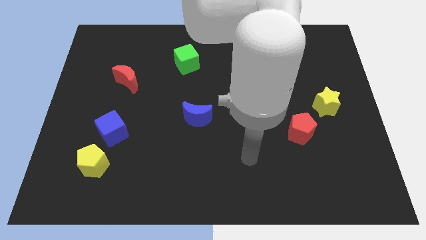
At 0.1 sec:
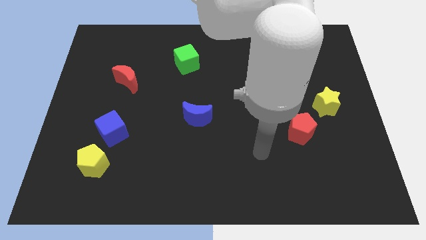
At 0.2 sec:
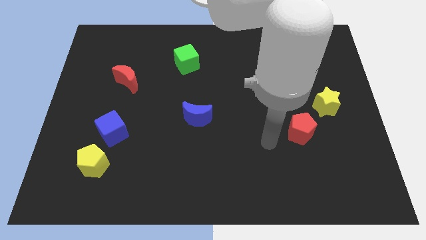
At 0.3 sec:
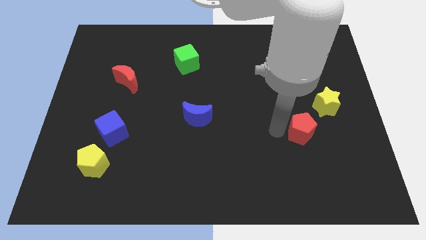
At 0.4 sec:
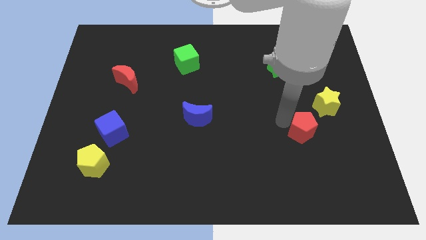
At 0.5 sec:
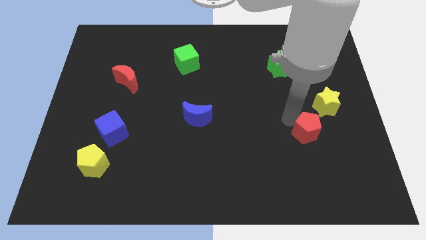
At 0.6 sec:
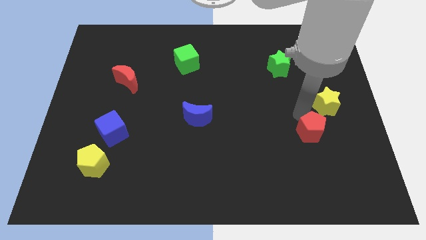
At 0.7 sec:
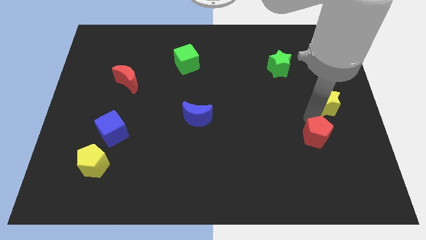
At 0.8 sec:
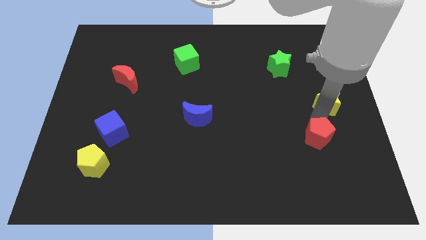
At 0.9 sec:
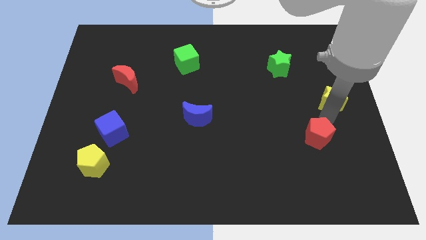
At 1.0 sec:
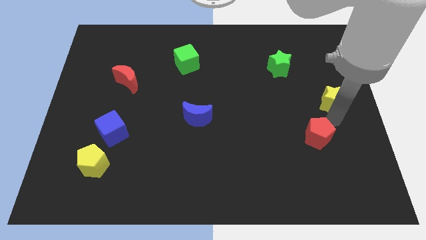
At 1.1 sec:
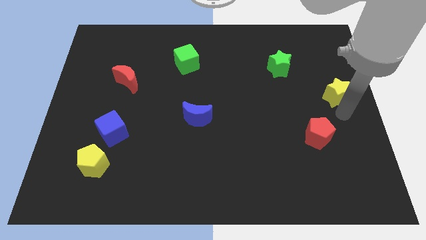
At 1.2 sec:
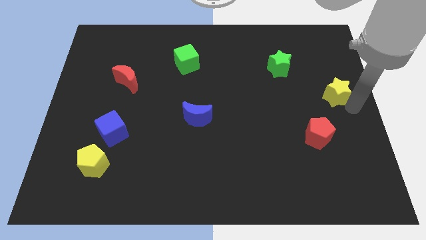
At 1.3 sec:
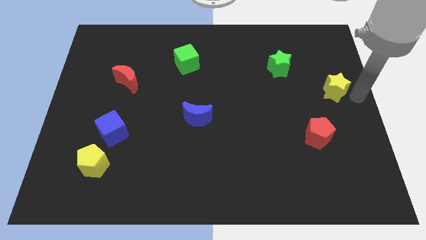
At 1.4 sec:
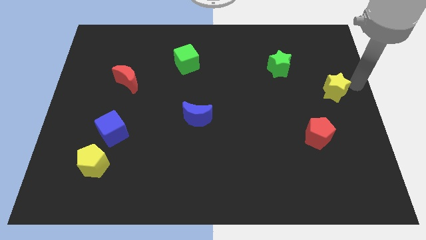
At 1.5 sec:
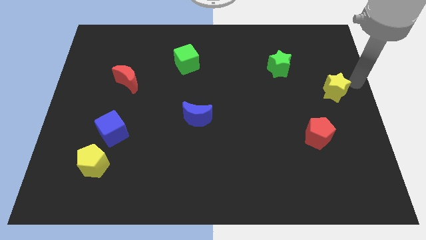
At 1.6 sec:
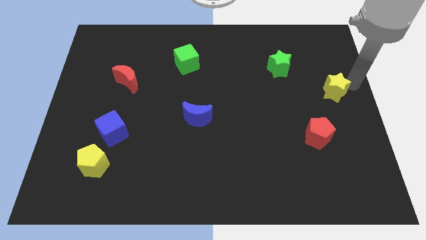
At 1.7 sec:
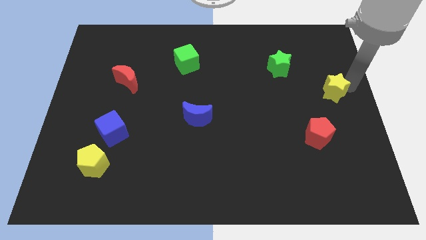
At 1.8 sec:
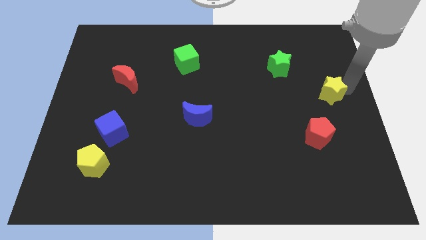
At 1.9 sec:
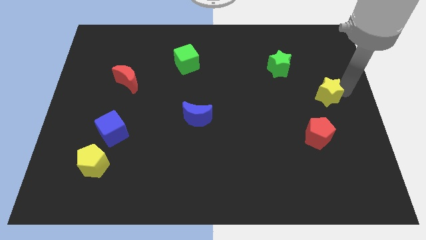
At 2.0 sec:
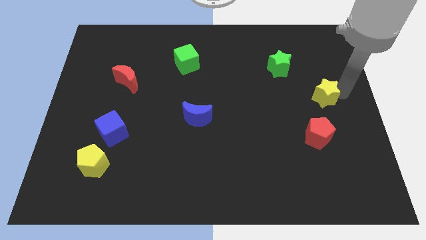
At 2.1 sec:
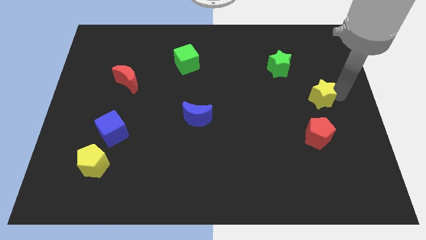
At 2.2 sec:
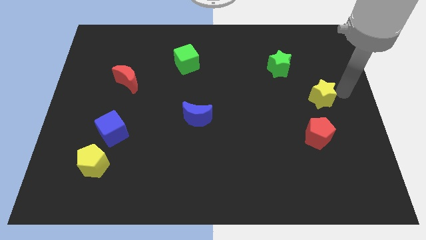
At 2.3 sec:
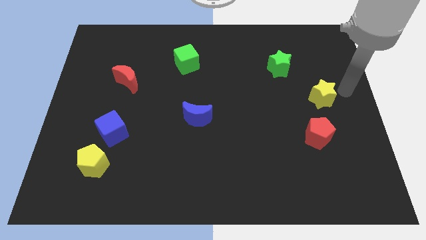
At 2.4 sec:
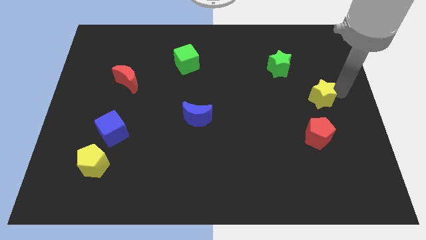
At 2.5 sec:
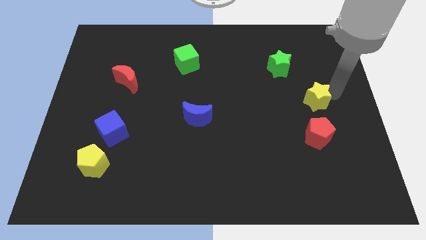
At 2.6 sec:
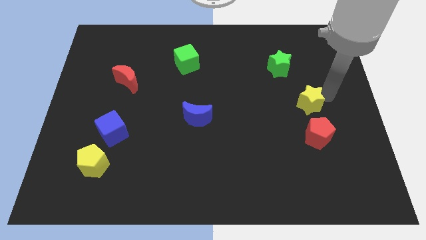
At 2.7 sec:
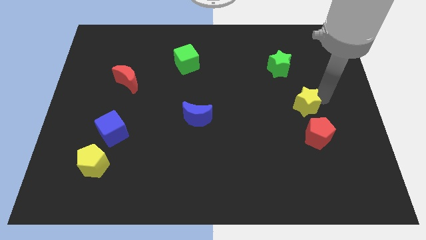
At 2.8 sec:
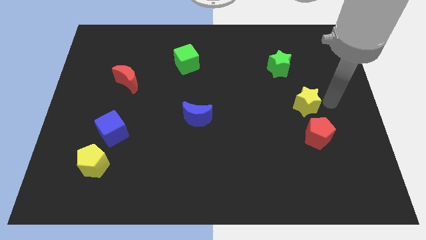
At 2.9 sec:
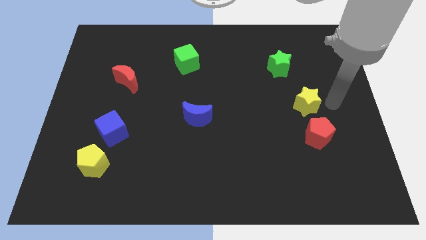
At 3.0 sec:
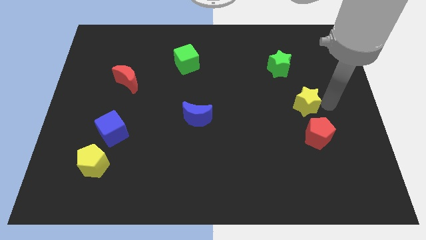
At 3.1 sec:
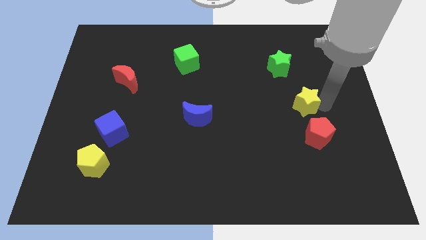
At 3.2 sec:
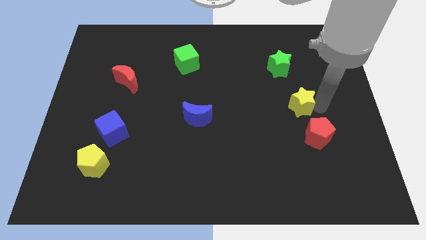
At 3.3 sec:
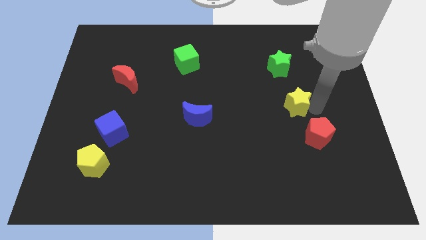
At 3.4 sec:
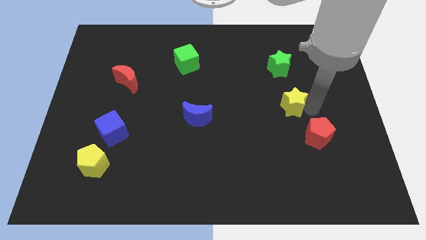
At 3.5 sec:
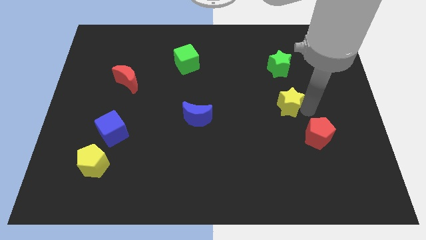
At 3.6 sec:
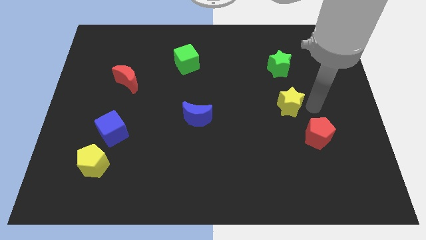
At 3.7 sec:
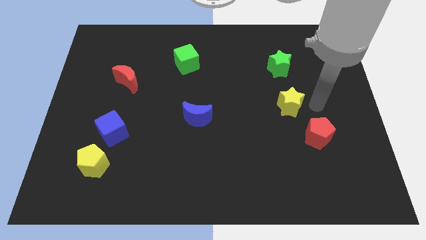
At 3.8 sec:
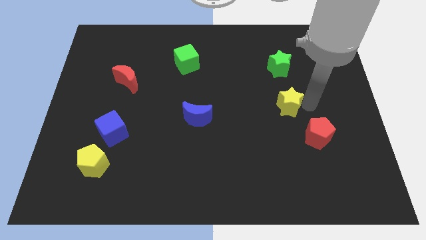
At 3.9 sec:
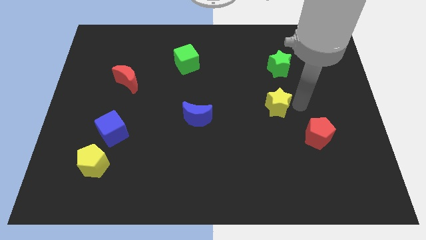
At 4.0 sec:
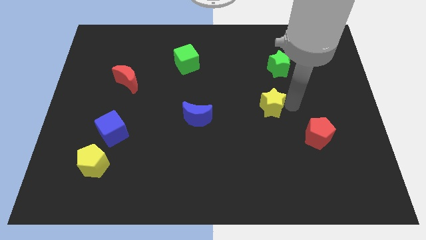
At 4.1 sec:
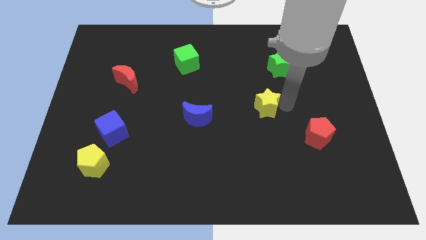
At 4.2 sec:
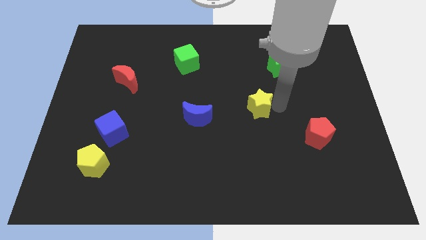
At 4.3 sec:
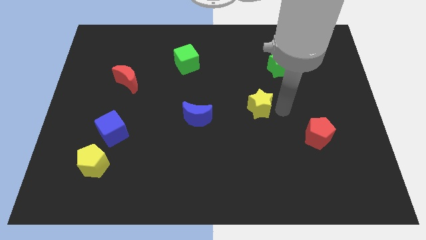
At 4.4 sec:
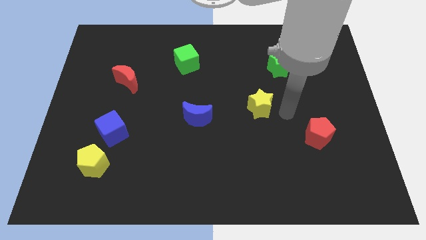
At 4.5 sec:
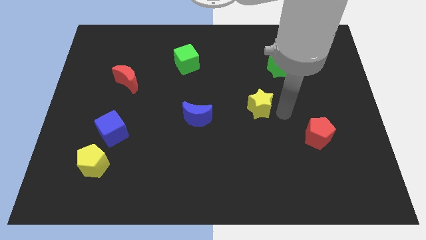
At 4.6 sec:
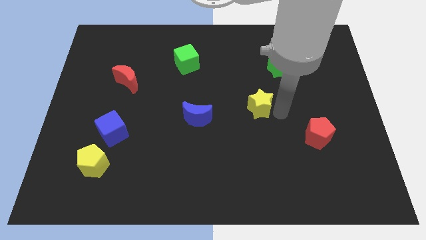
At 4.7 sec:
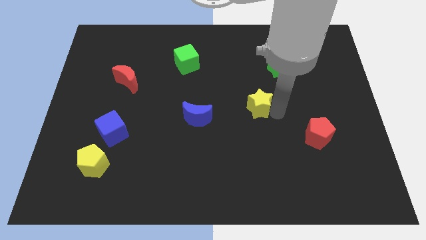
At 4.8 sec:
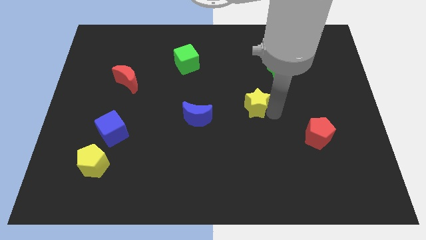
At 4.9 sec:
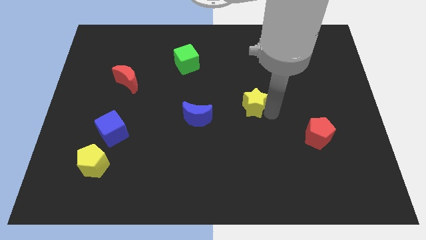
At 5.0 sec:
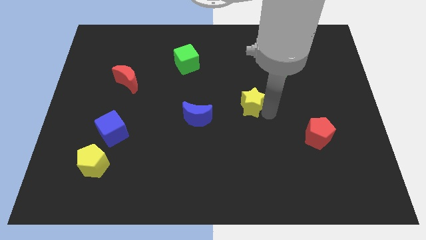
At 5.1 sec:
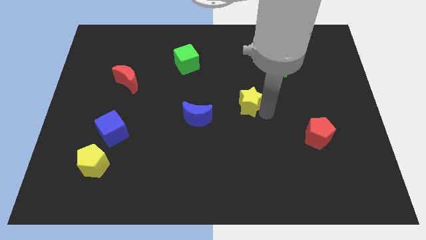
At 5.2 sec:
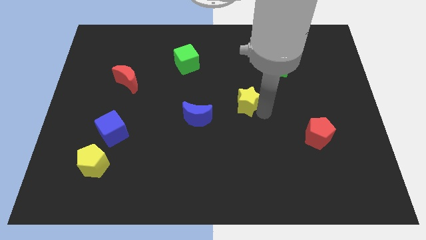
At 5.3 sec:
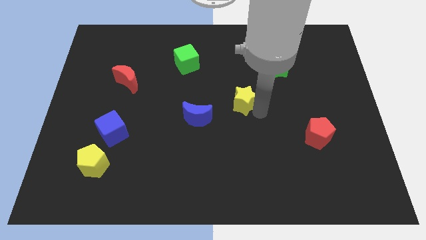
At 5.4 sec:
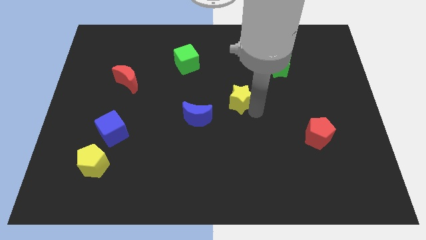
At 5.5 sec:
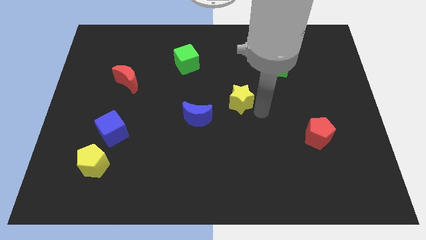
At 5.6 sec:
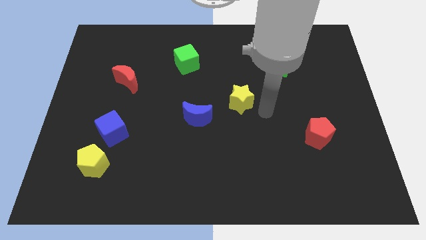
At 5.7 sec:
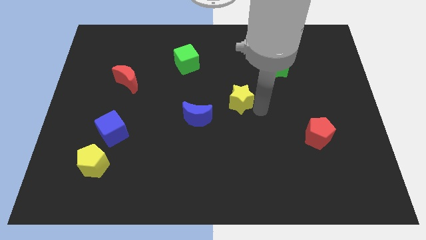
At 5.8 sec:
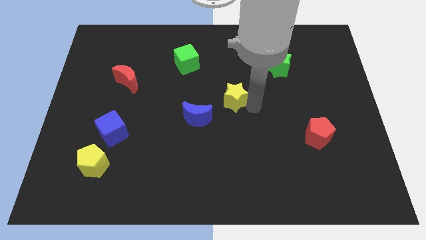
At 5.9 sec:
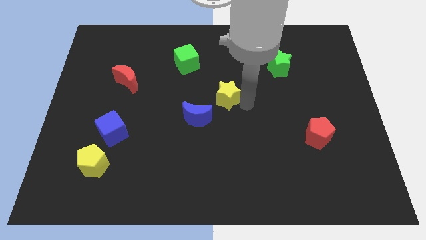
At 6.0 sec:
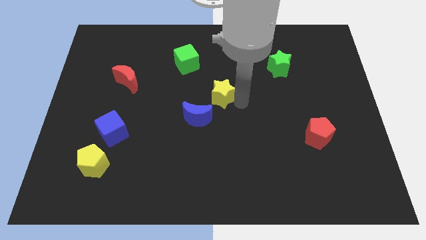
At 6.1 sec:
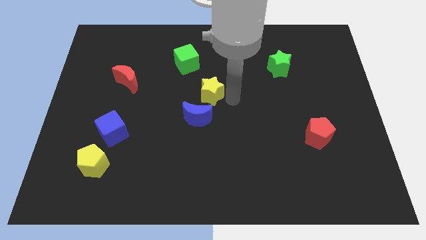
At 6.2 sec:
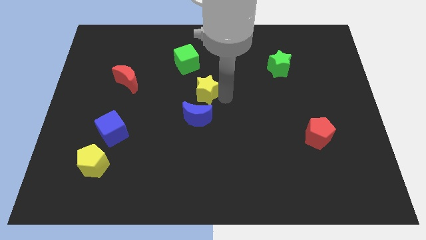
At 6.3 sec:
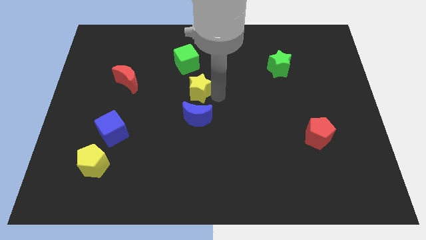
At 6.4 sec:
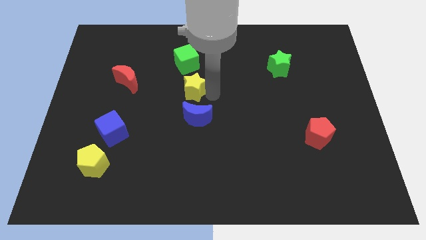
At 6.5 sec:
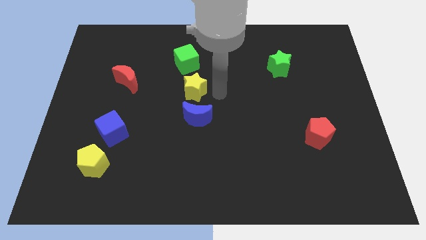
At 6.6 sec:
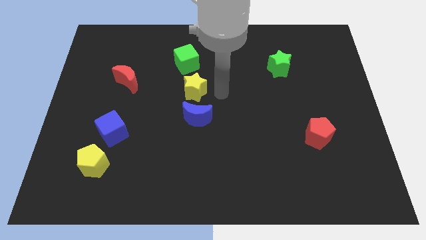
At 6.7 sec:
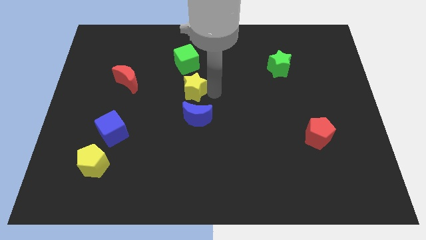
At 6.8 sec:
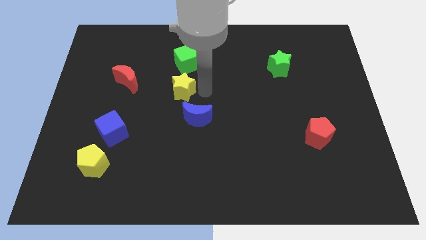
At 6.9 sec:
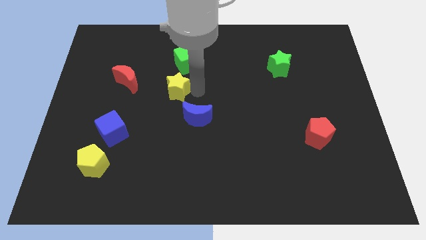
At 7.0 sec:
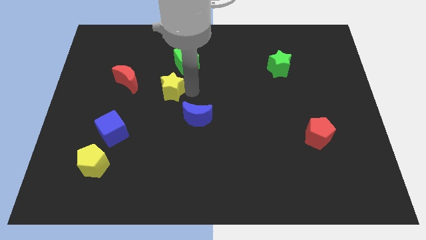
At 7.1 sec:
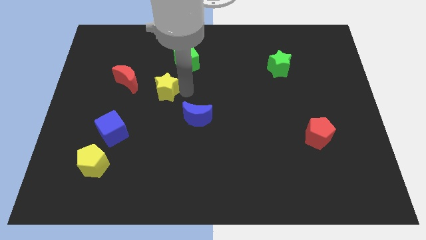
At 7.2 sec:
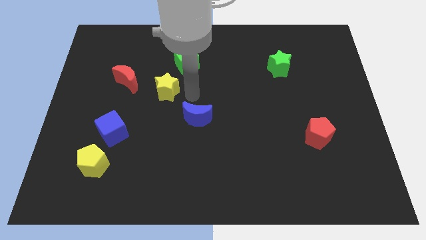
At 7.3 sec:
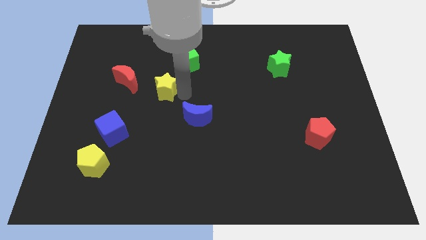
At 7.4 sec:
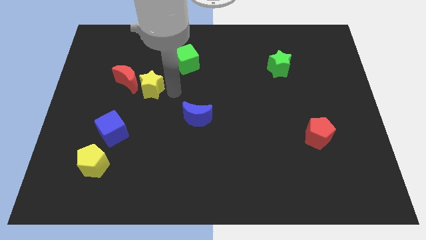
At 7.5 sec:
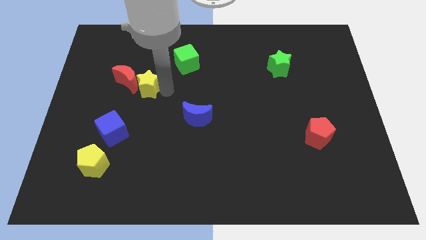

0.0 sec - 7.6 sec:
put the yellow star close to the red moon
